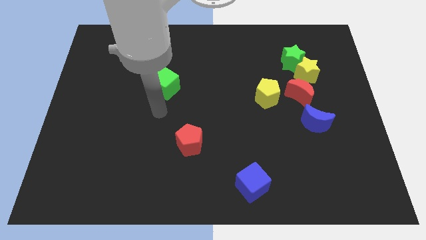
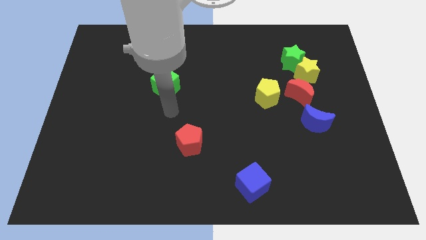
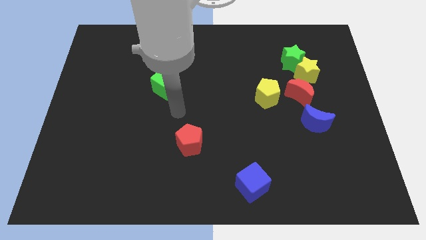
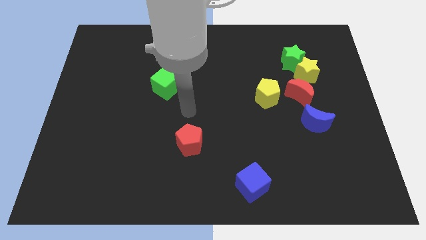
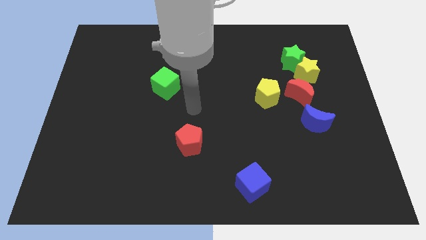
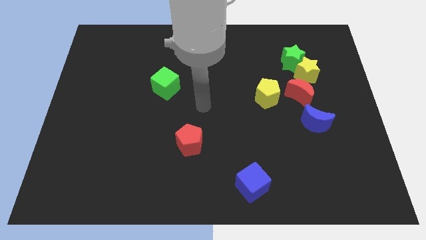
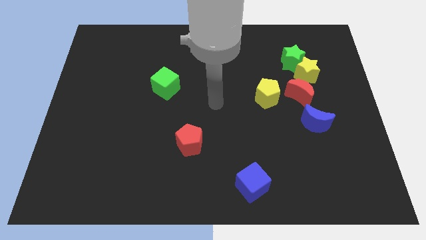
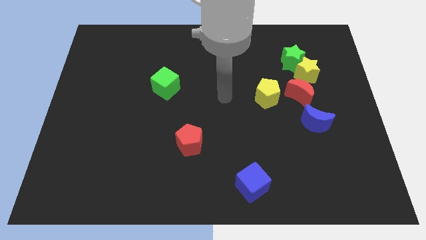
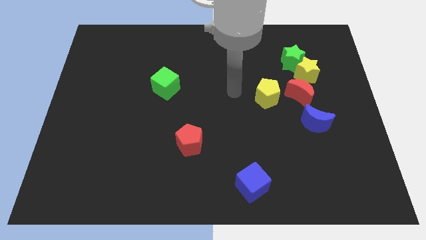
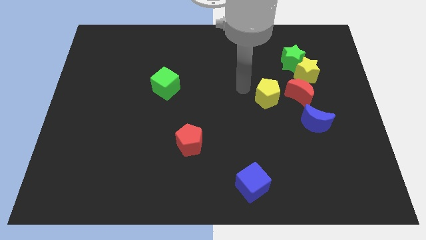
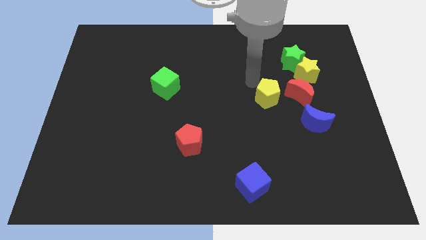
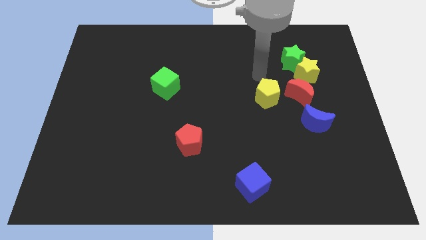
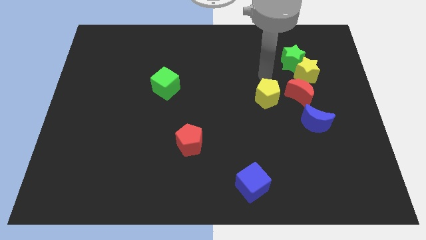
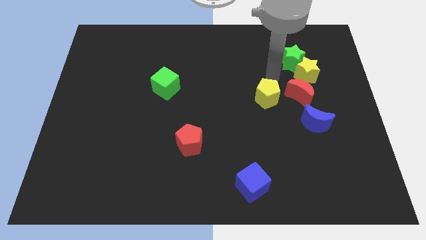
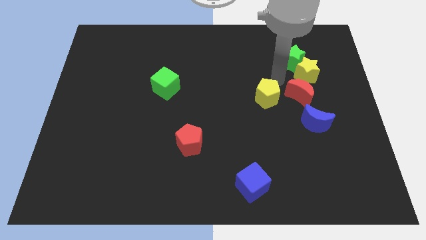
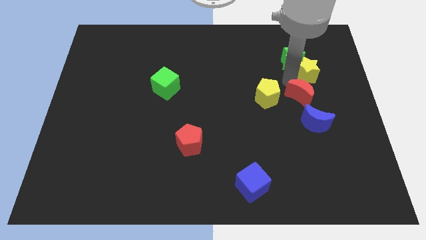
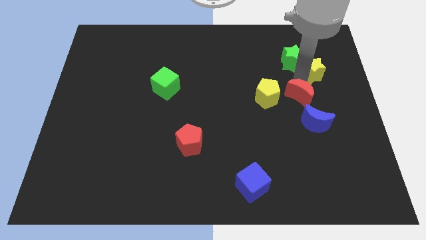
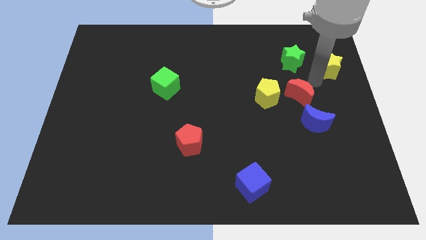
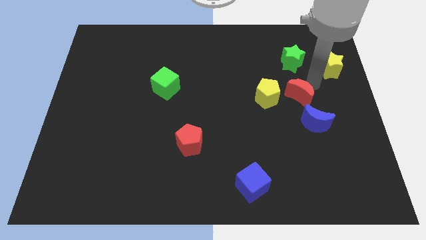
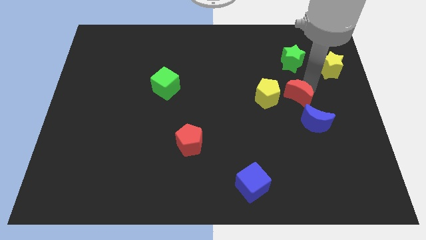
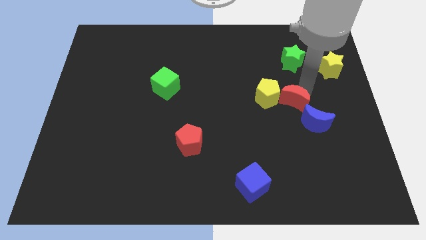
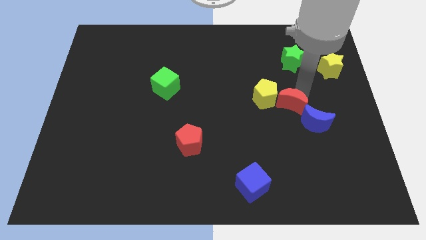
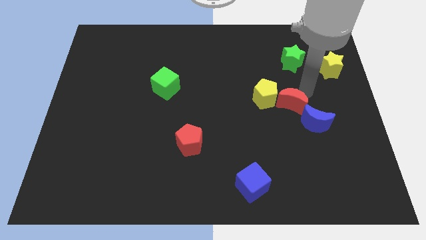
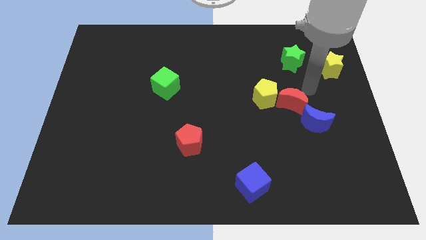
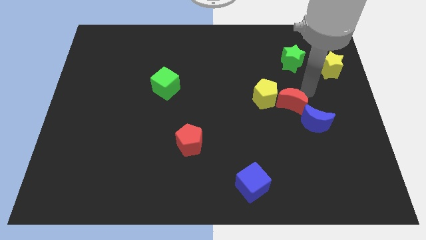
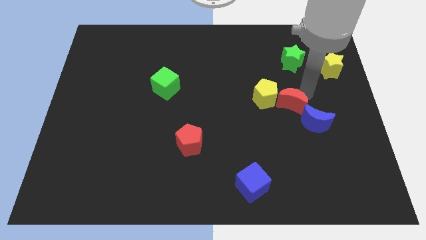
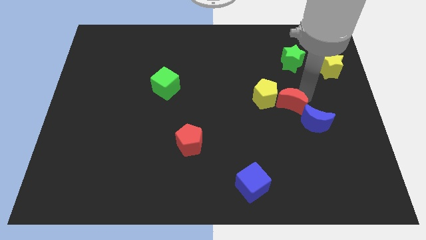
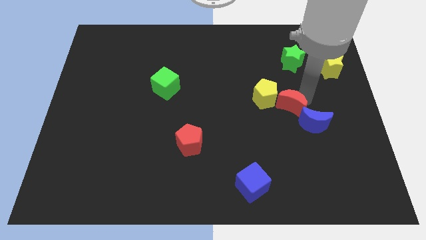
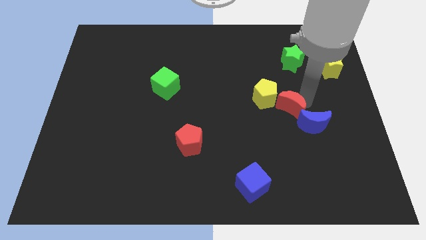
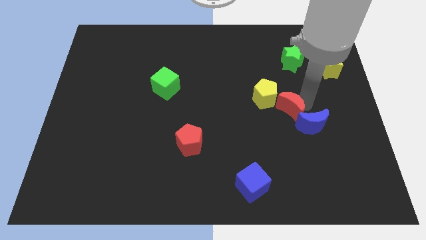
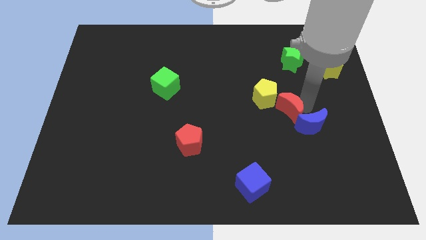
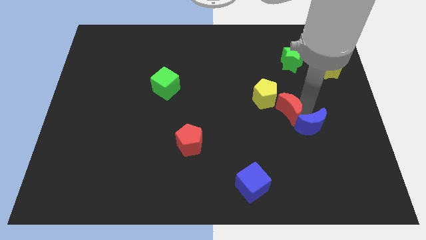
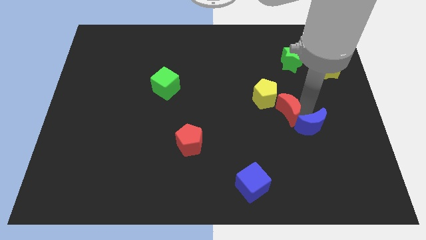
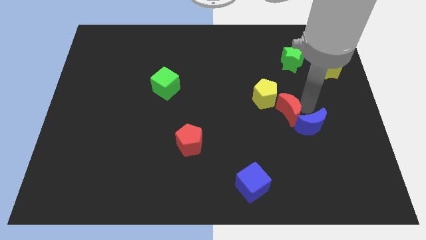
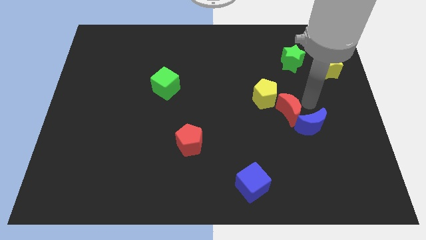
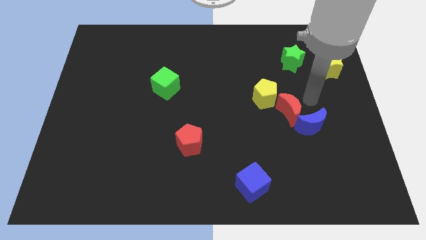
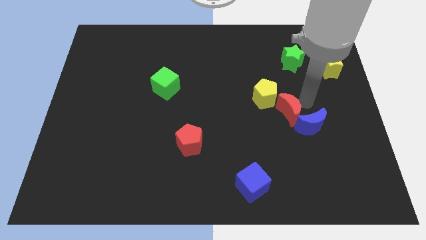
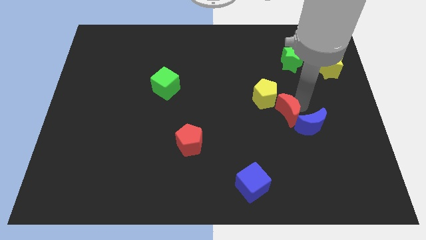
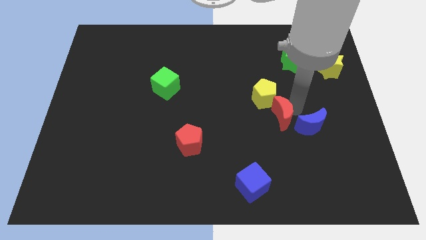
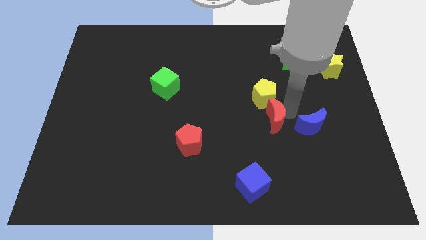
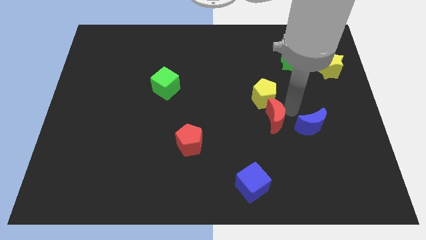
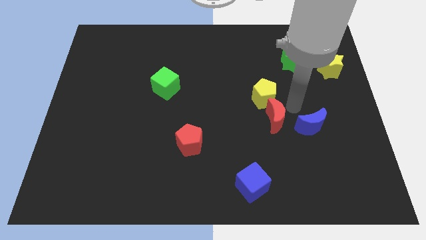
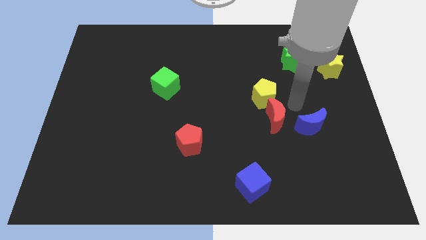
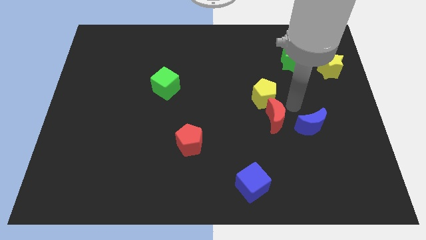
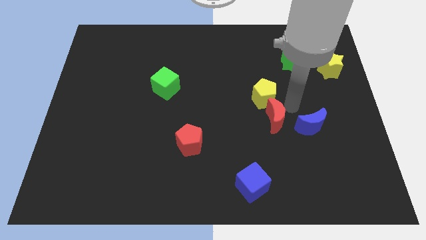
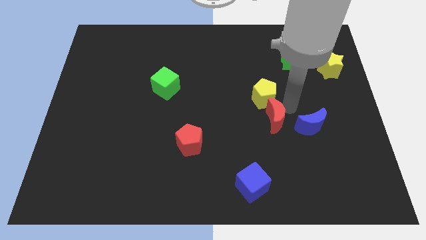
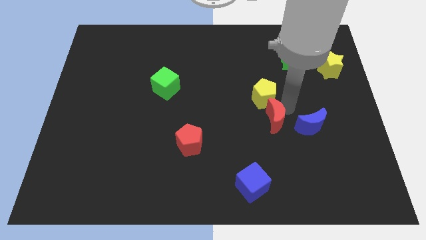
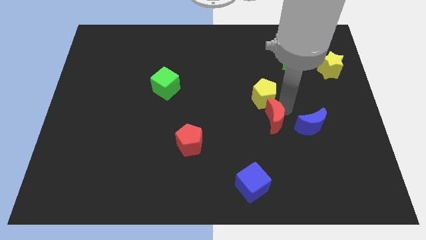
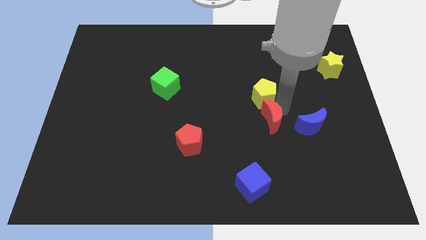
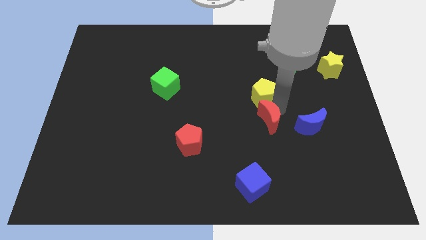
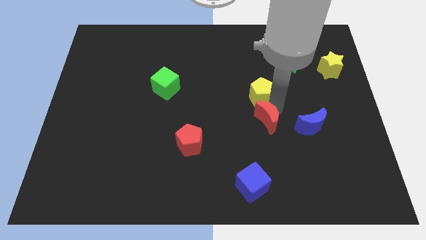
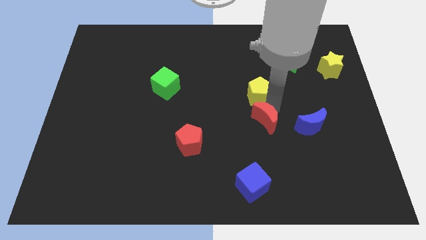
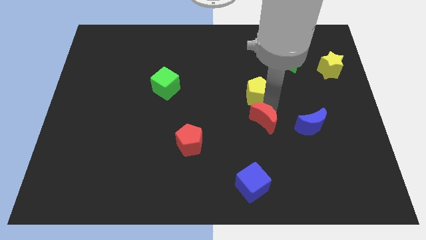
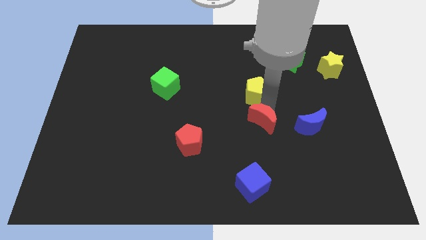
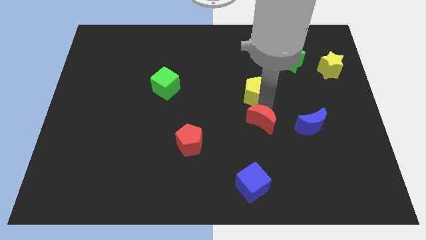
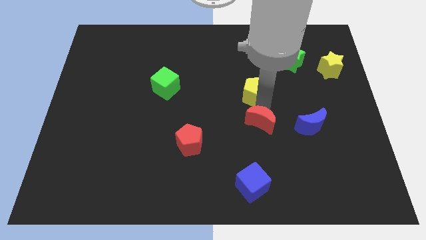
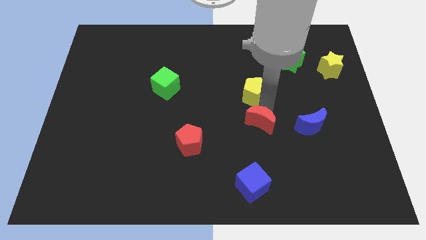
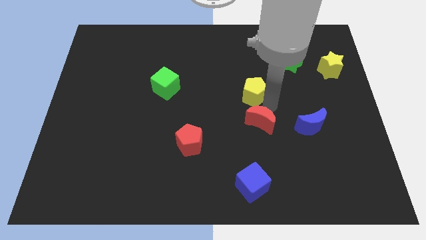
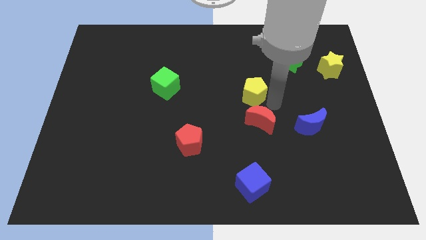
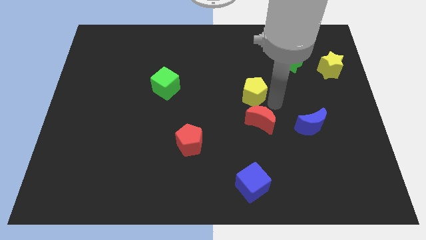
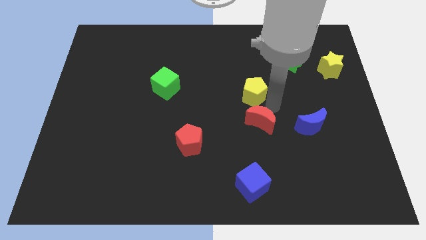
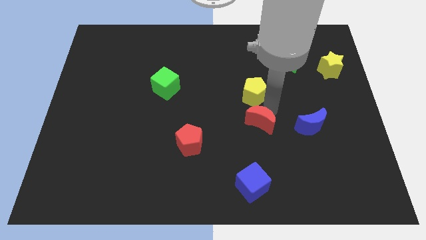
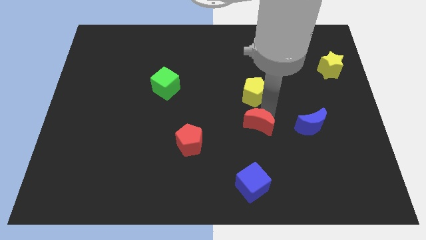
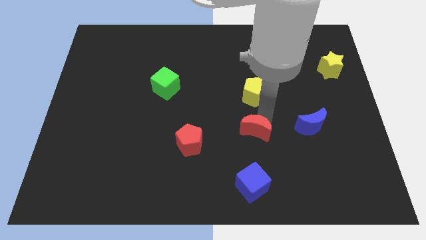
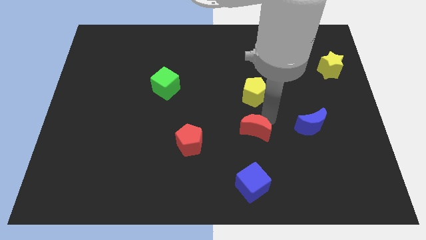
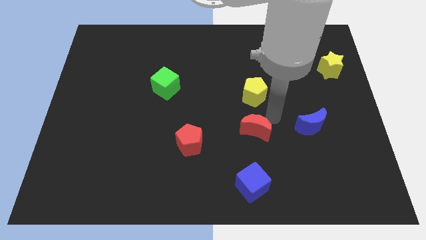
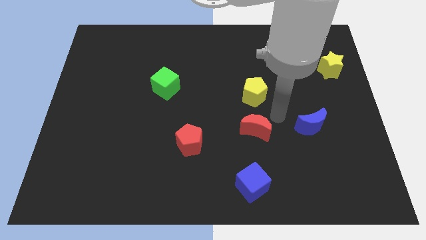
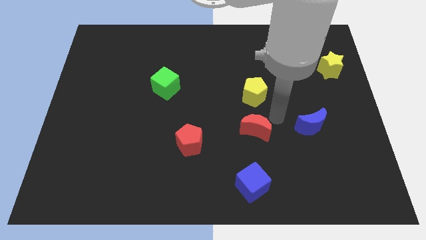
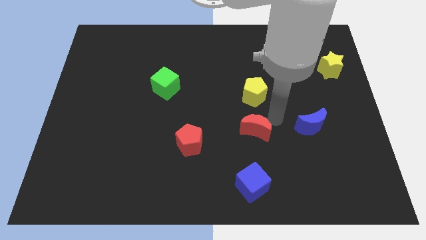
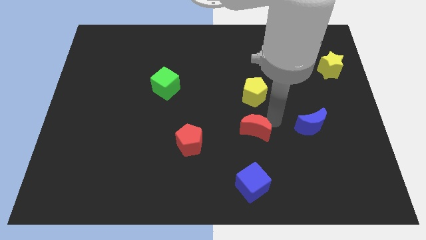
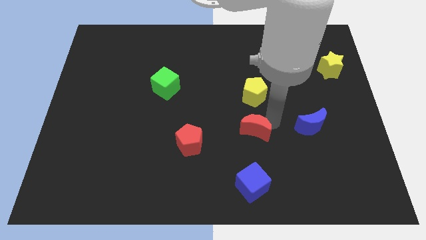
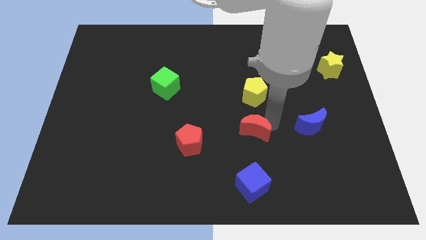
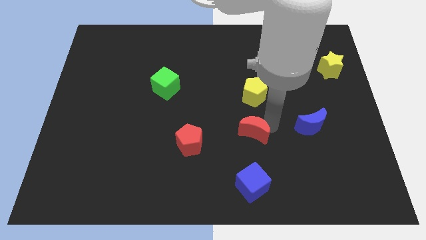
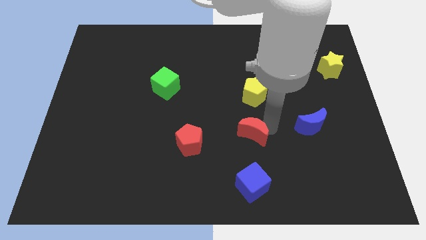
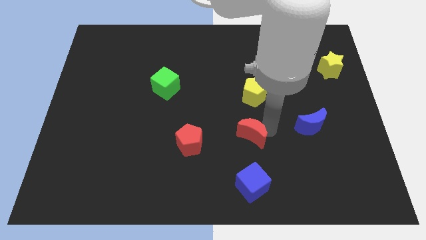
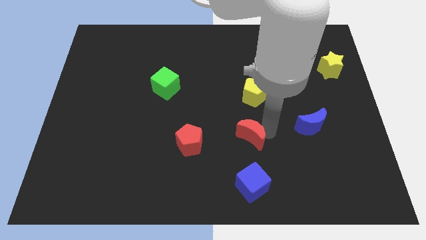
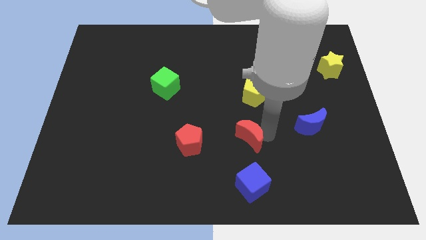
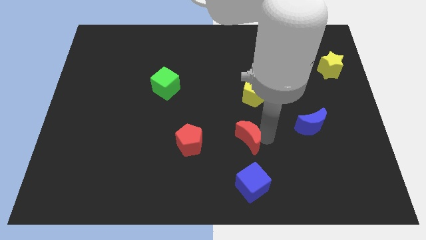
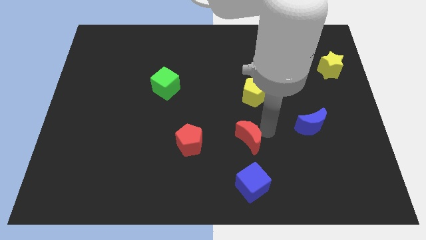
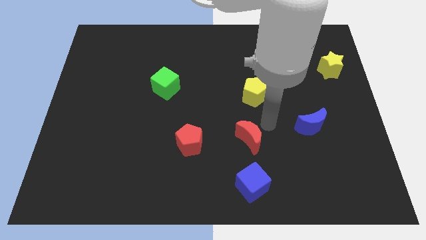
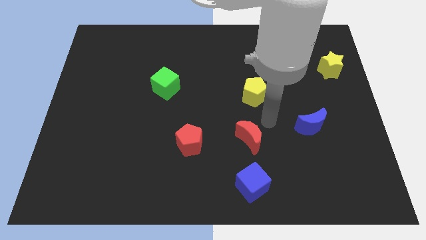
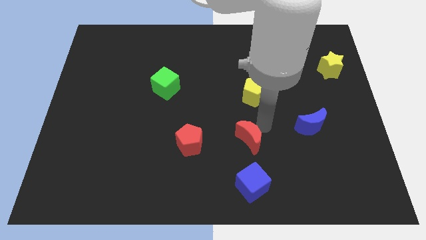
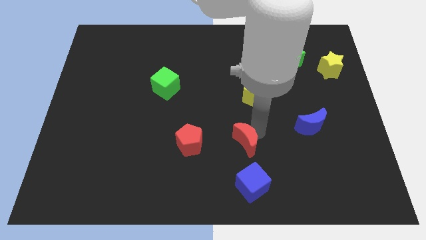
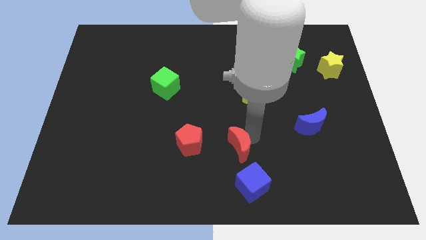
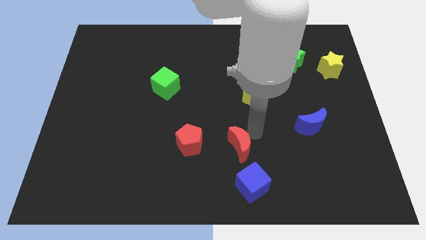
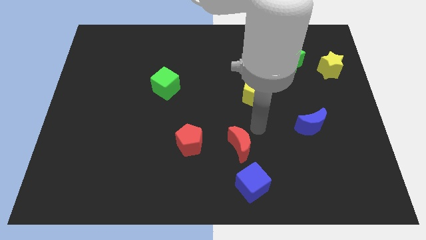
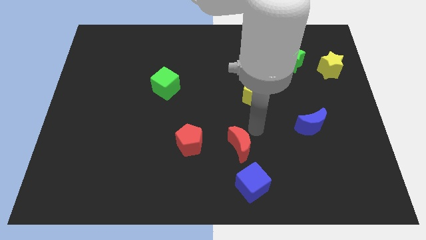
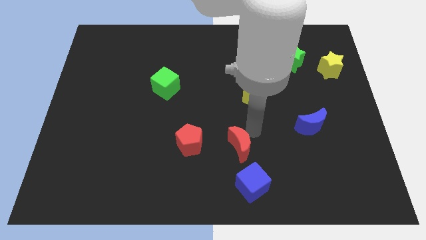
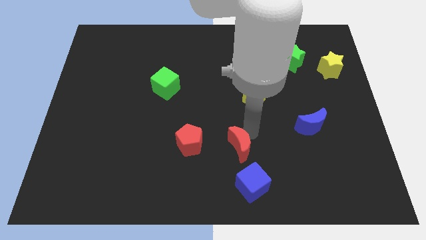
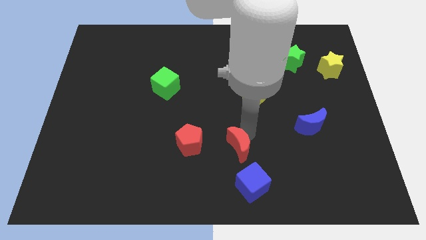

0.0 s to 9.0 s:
slide the red moon to the top left of the blue cube
